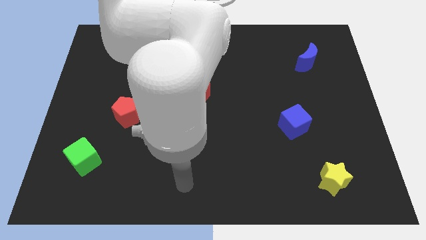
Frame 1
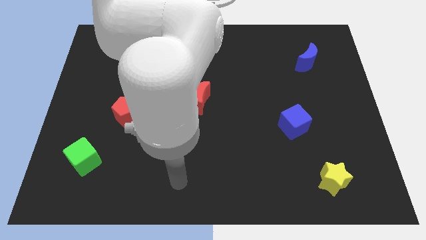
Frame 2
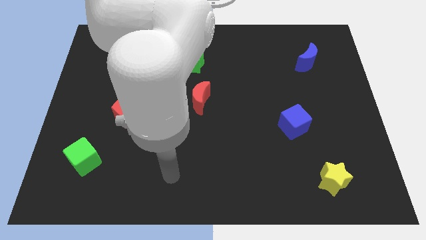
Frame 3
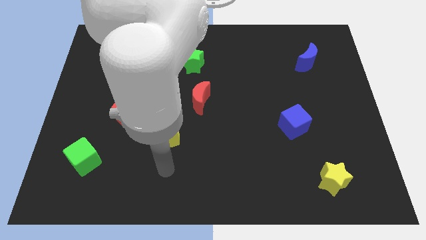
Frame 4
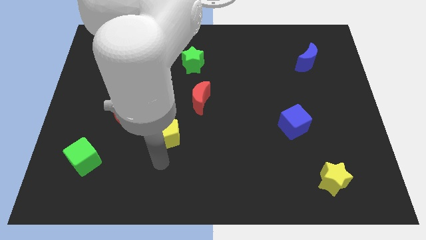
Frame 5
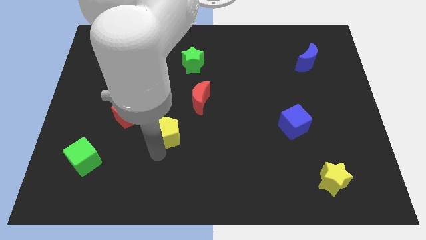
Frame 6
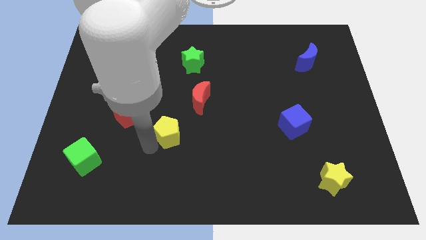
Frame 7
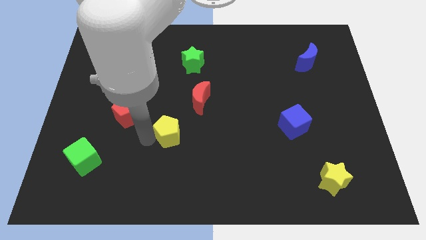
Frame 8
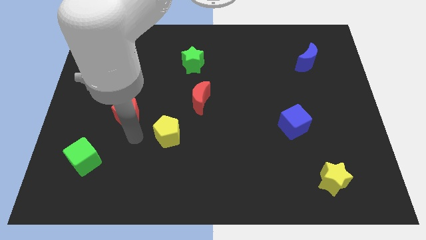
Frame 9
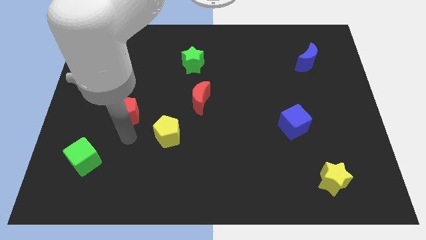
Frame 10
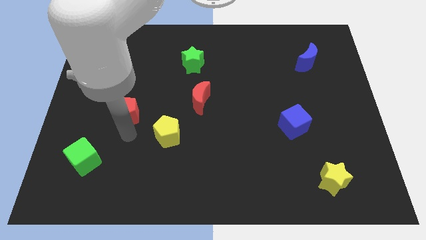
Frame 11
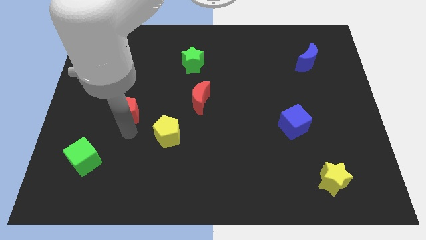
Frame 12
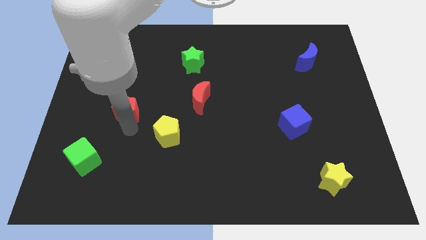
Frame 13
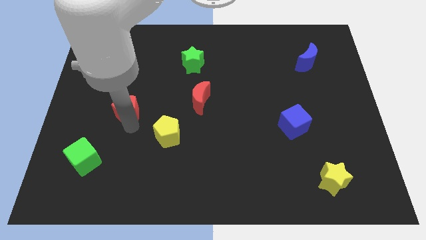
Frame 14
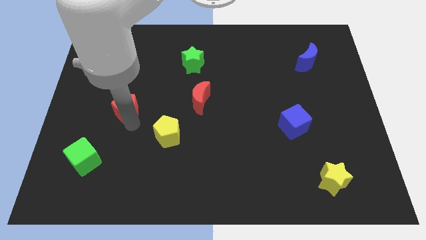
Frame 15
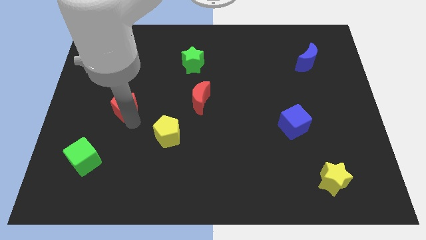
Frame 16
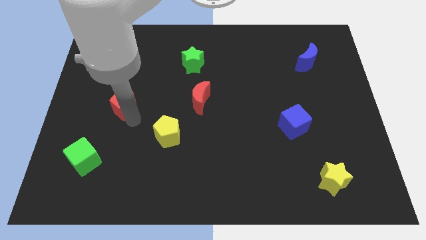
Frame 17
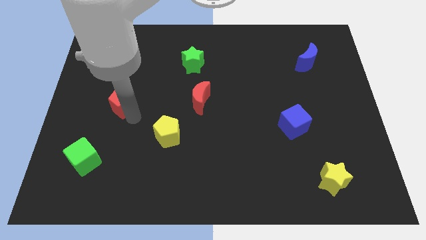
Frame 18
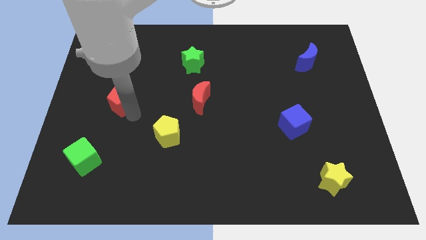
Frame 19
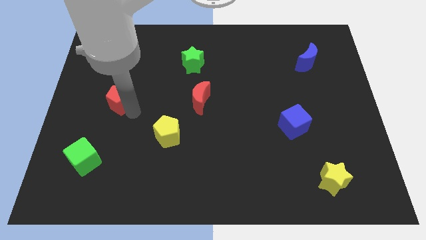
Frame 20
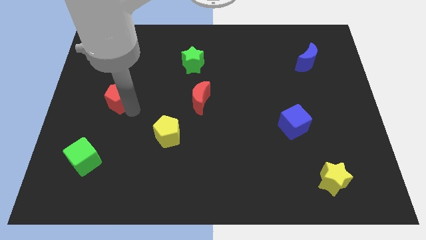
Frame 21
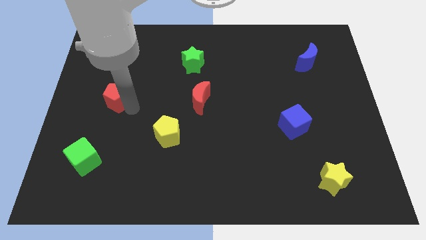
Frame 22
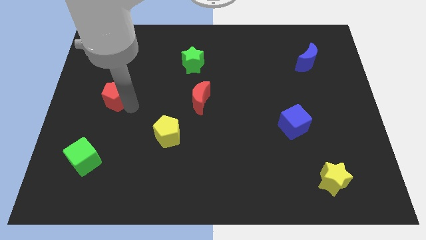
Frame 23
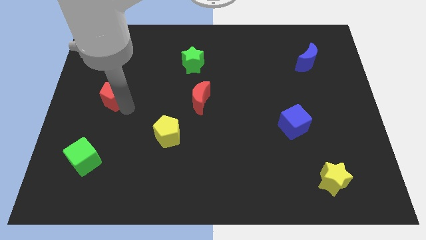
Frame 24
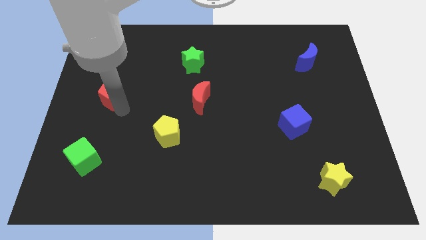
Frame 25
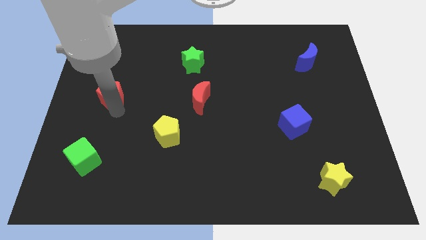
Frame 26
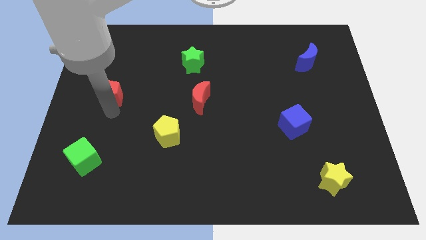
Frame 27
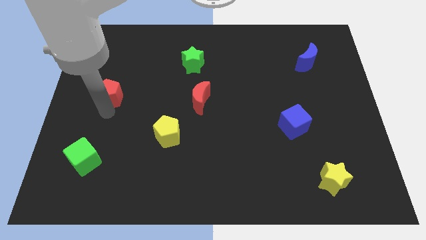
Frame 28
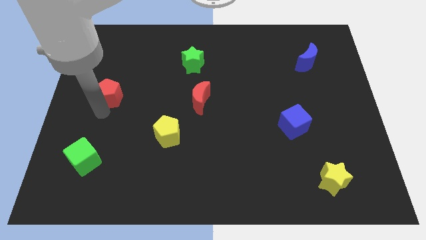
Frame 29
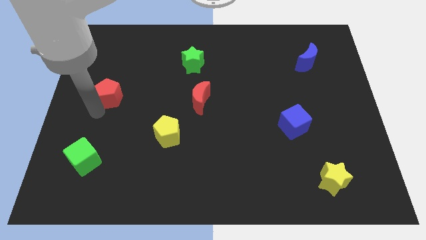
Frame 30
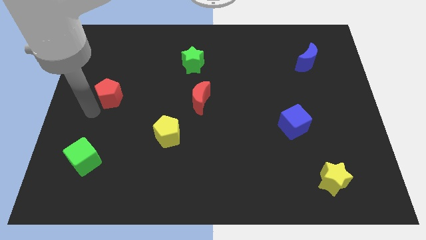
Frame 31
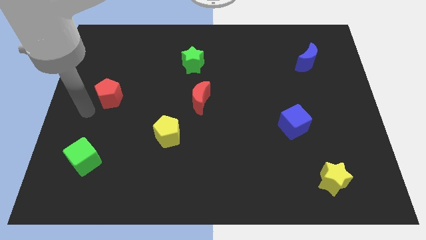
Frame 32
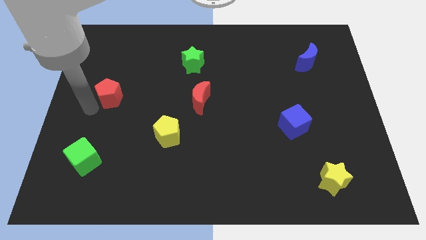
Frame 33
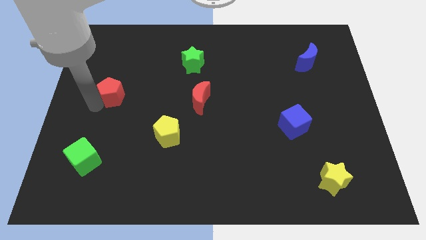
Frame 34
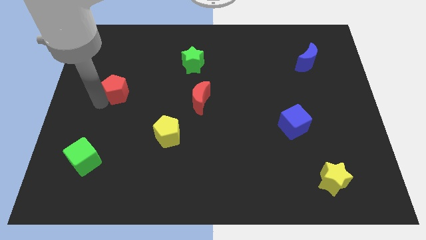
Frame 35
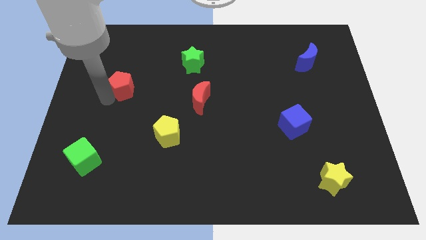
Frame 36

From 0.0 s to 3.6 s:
slide the red pentagon a little bit upwards

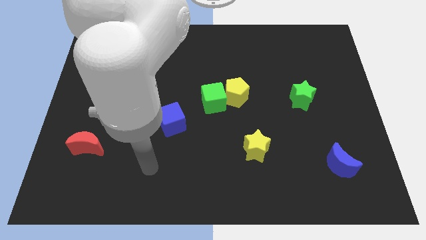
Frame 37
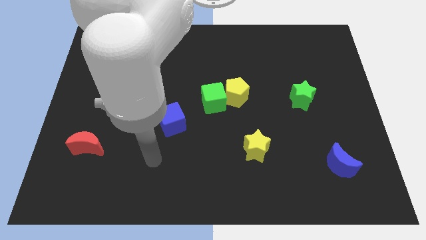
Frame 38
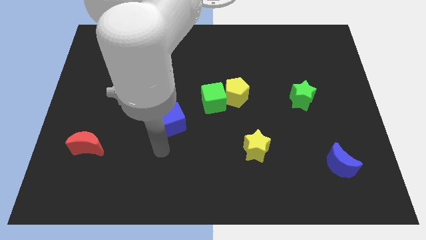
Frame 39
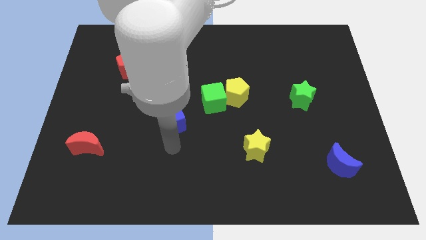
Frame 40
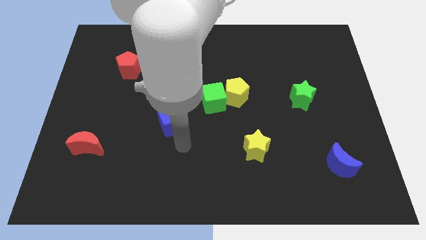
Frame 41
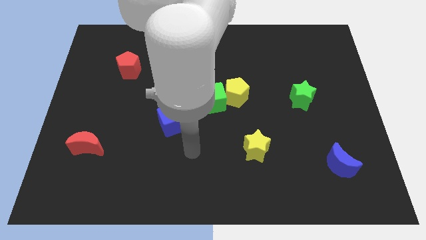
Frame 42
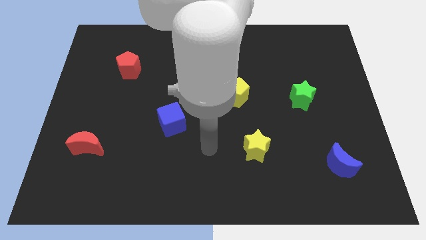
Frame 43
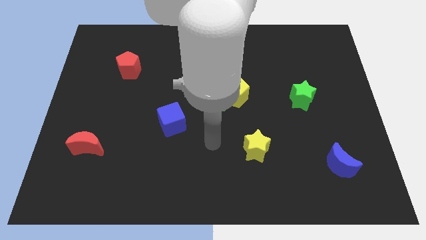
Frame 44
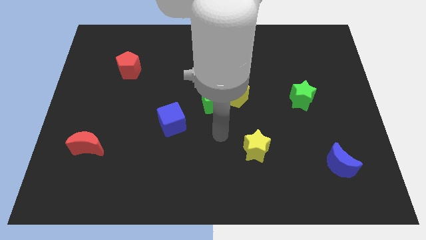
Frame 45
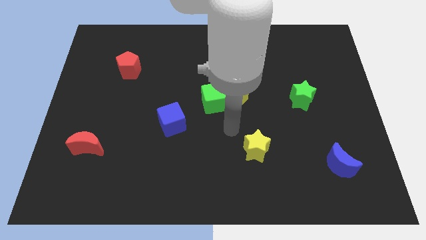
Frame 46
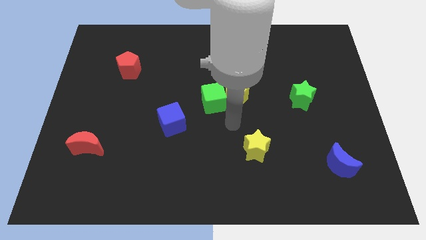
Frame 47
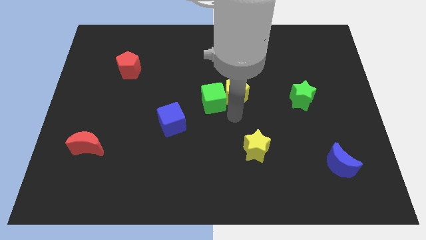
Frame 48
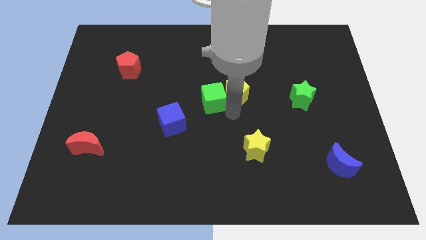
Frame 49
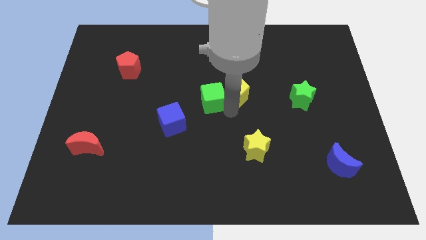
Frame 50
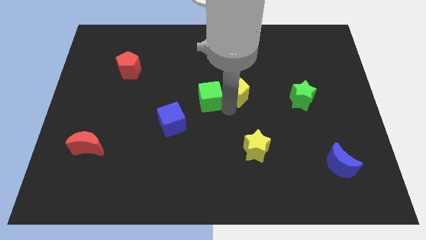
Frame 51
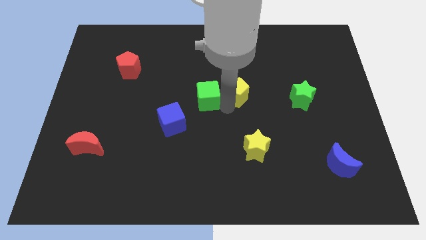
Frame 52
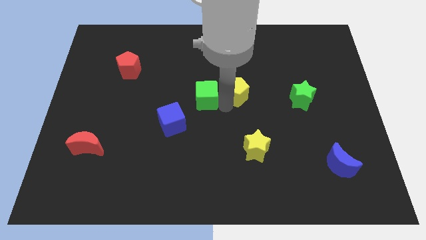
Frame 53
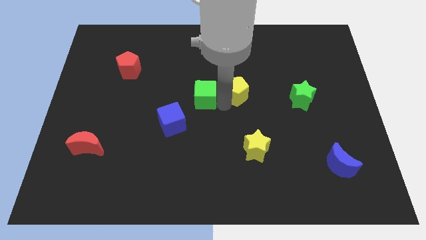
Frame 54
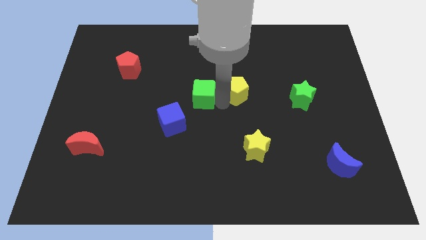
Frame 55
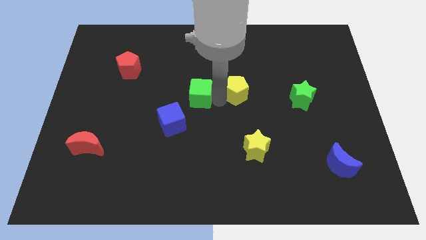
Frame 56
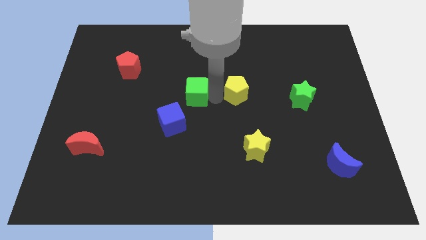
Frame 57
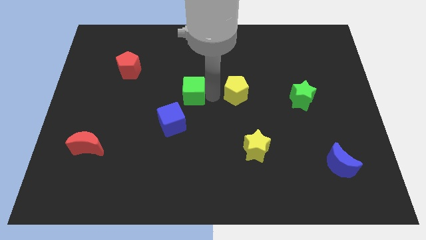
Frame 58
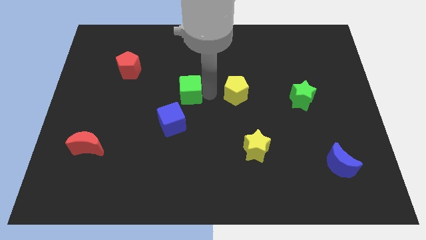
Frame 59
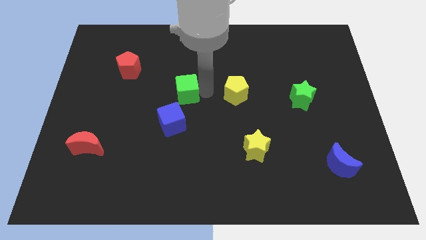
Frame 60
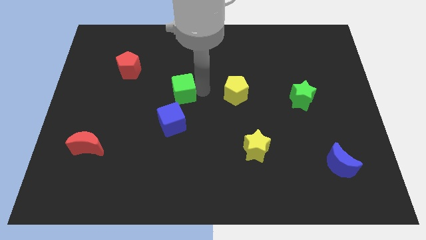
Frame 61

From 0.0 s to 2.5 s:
push the green cube upwards and then to the left a bit

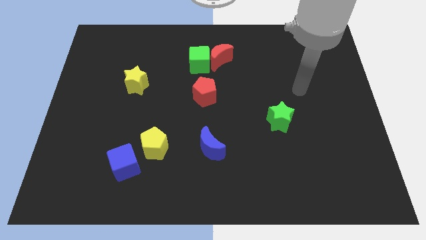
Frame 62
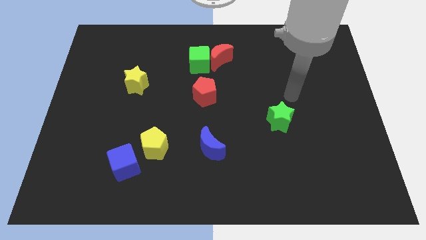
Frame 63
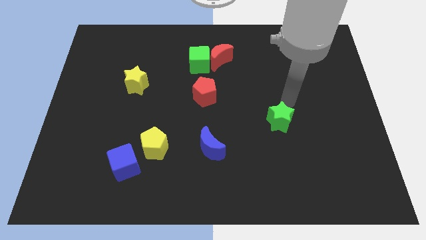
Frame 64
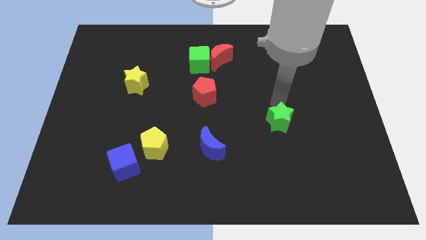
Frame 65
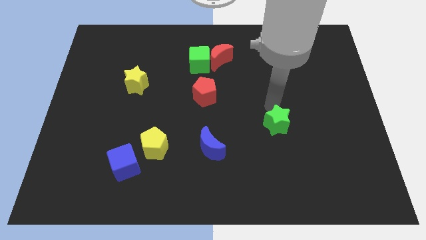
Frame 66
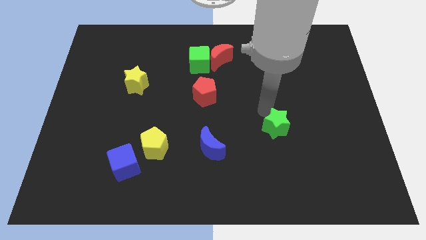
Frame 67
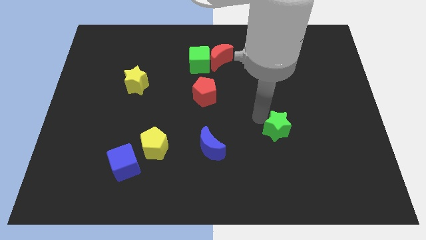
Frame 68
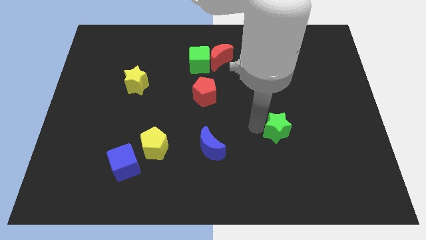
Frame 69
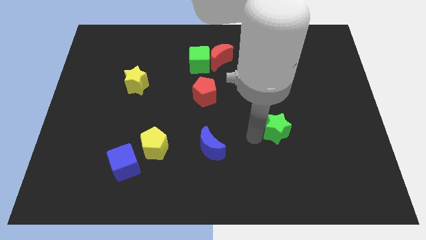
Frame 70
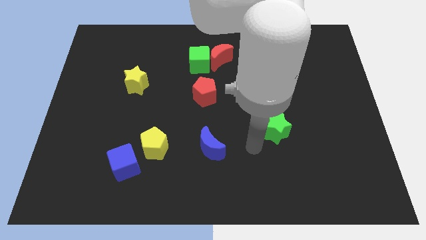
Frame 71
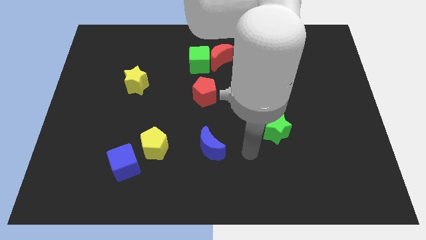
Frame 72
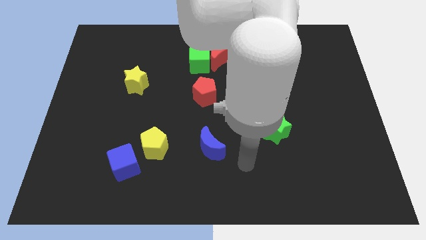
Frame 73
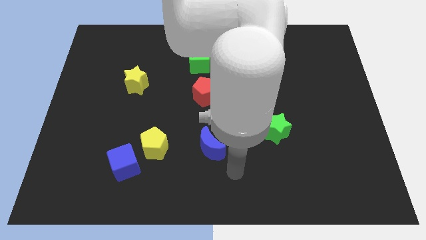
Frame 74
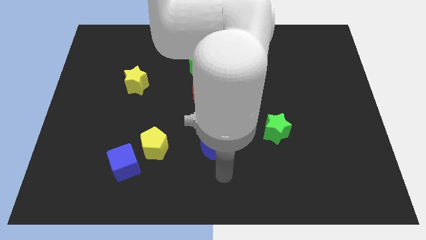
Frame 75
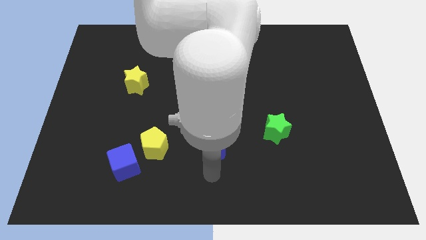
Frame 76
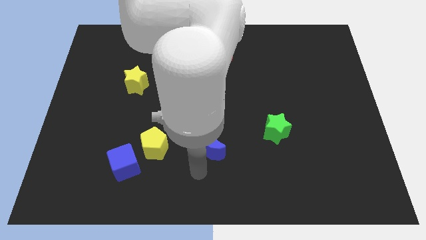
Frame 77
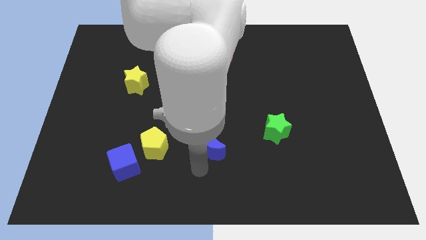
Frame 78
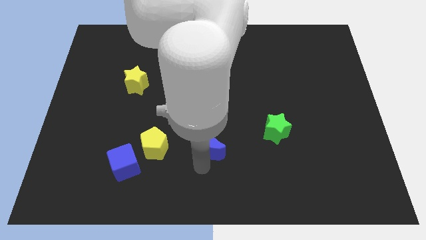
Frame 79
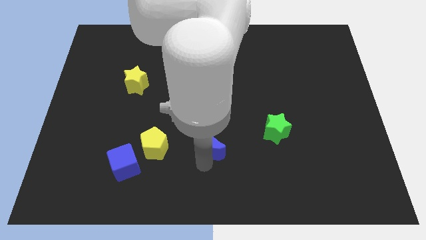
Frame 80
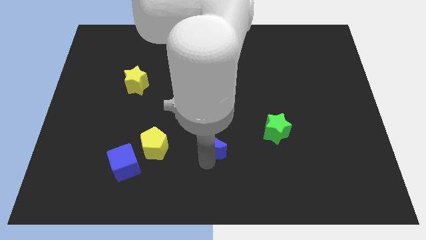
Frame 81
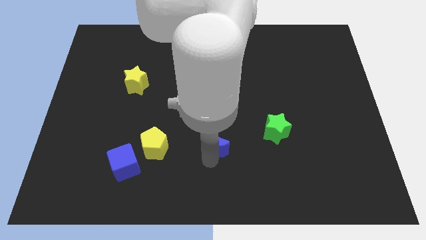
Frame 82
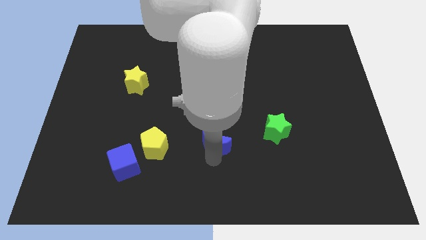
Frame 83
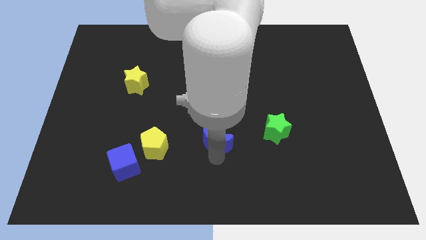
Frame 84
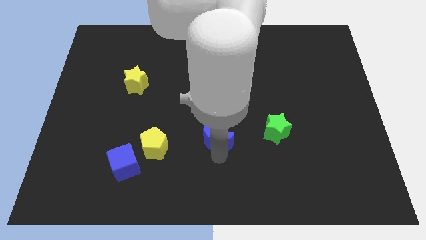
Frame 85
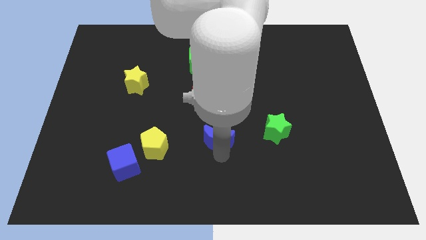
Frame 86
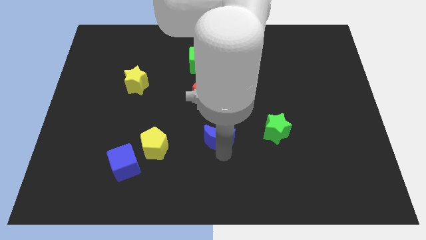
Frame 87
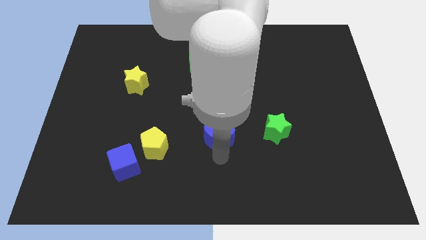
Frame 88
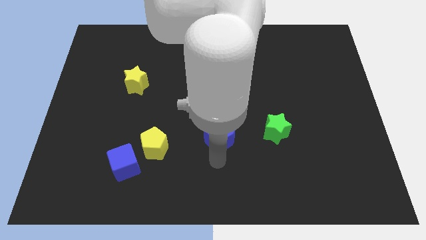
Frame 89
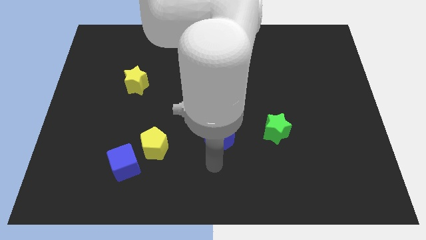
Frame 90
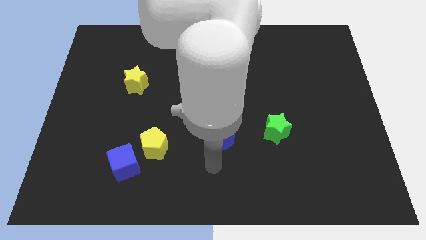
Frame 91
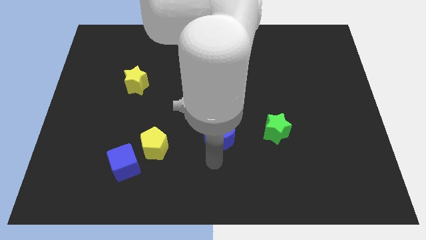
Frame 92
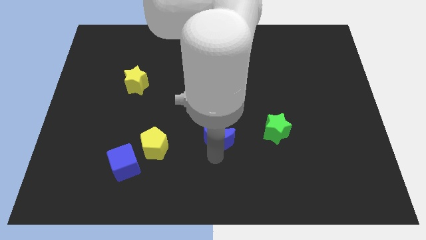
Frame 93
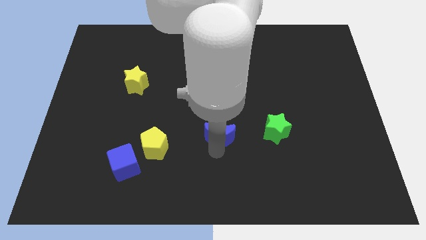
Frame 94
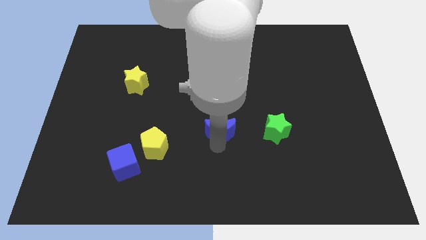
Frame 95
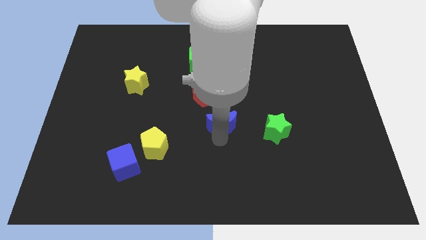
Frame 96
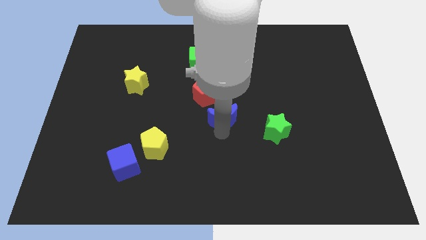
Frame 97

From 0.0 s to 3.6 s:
move the blue moon slightly up
